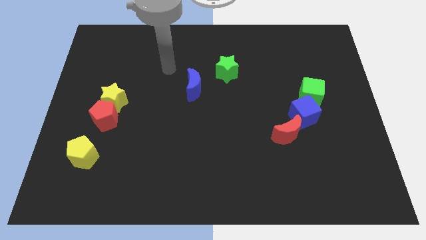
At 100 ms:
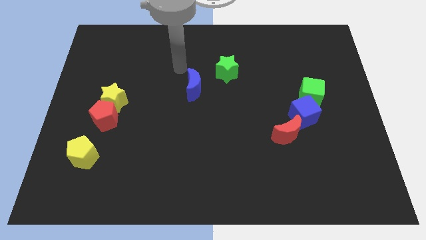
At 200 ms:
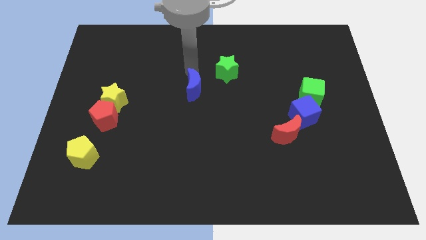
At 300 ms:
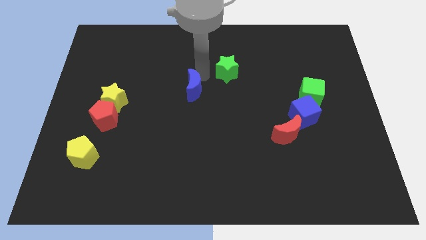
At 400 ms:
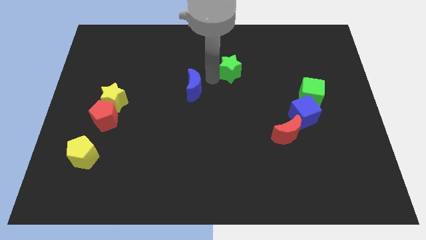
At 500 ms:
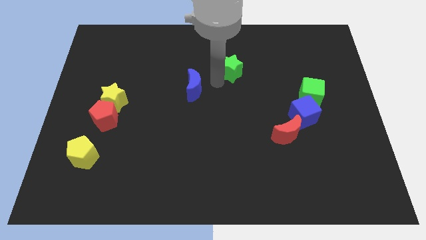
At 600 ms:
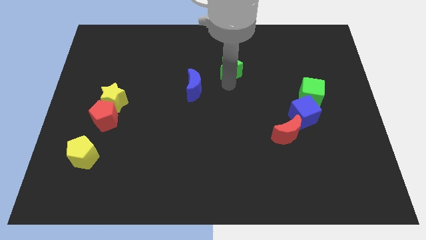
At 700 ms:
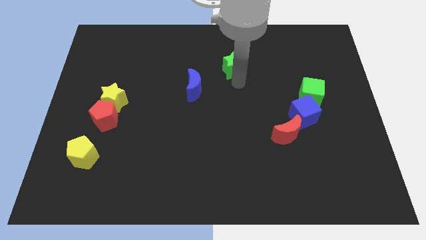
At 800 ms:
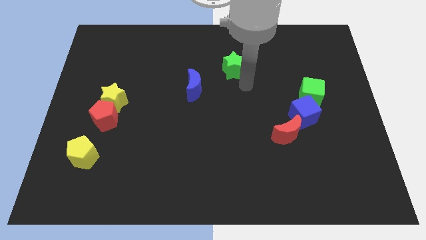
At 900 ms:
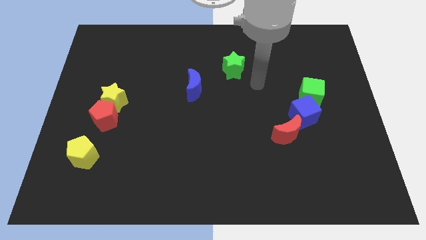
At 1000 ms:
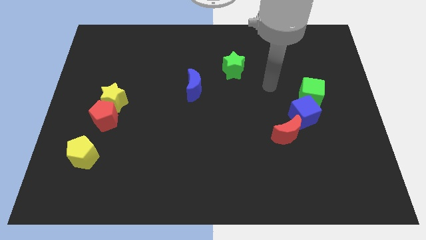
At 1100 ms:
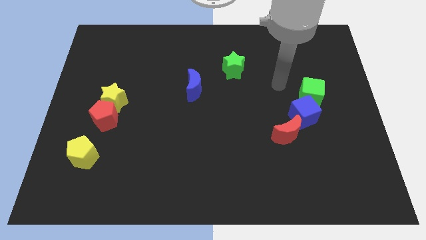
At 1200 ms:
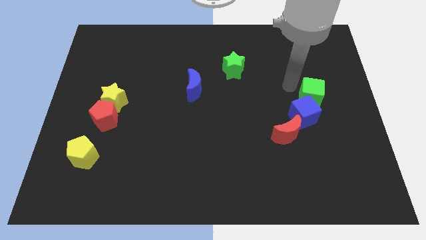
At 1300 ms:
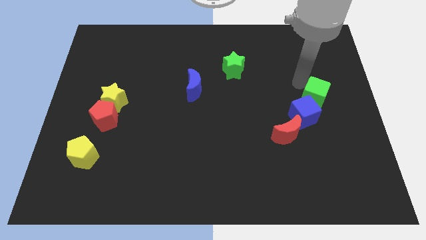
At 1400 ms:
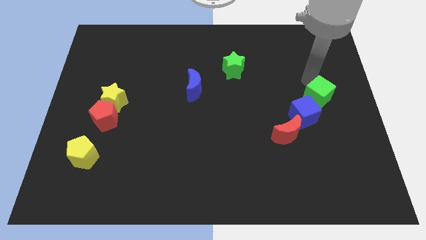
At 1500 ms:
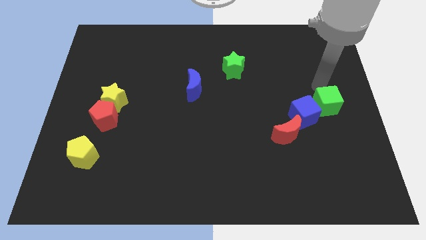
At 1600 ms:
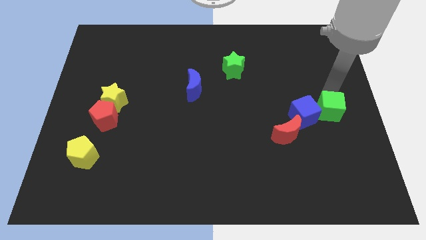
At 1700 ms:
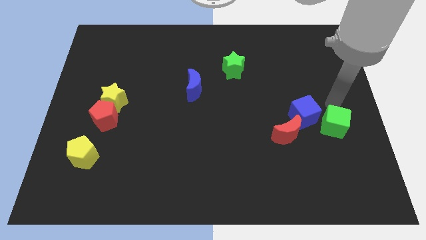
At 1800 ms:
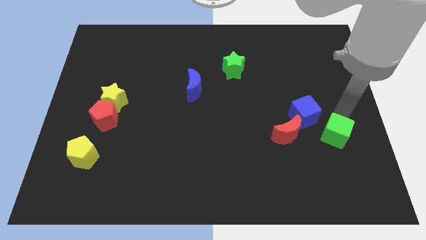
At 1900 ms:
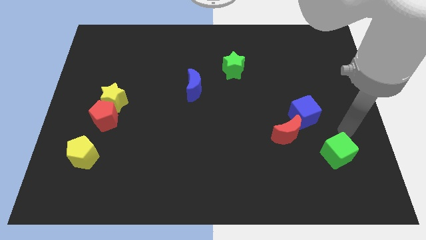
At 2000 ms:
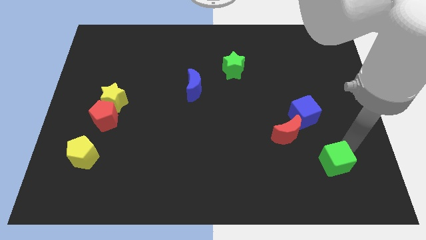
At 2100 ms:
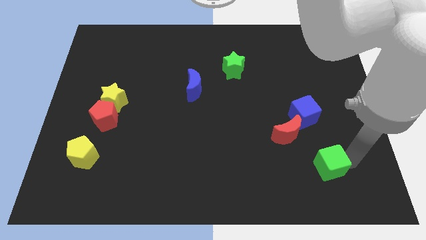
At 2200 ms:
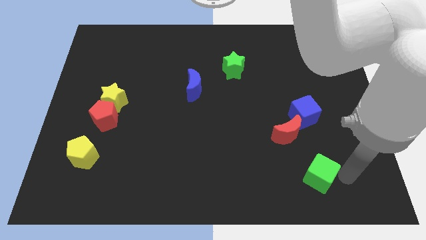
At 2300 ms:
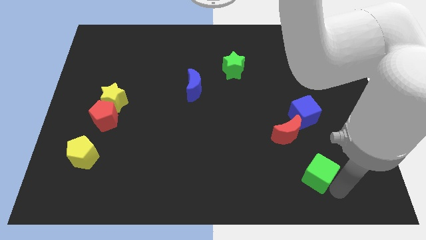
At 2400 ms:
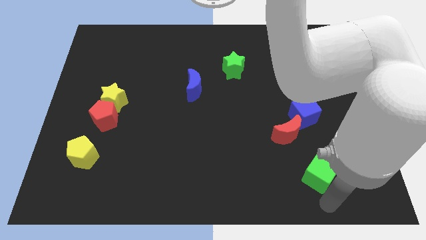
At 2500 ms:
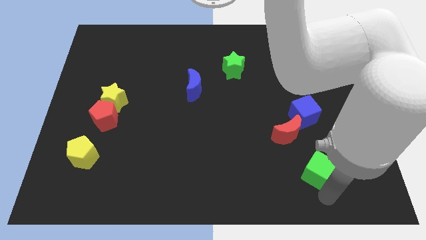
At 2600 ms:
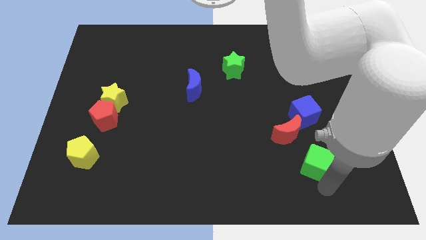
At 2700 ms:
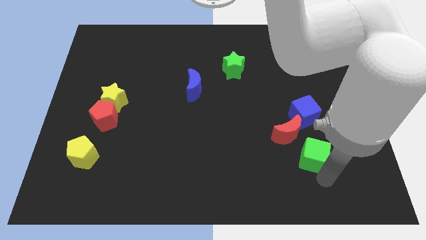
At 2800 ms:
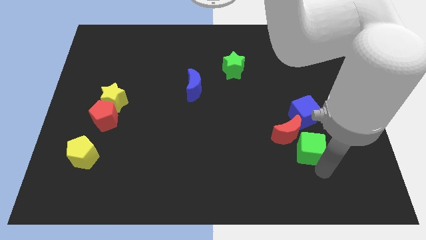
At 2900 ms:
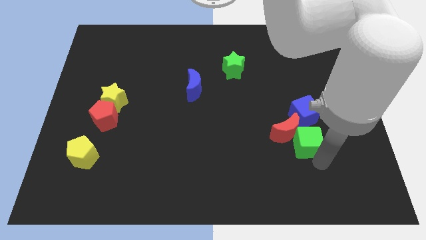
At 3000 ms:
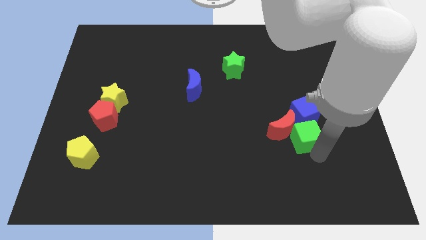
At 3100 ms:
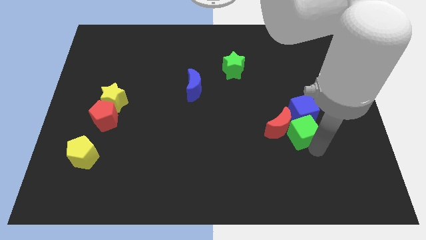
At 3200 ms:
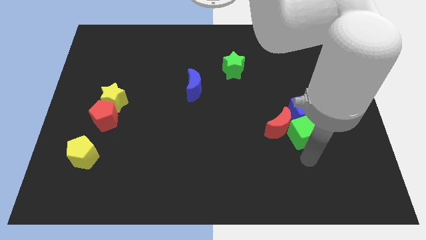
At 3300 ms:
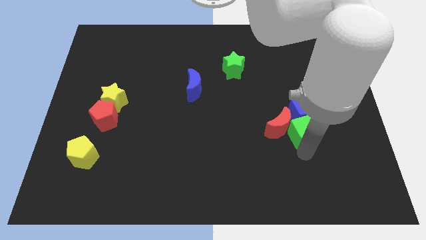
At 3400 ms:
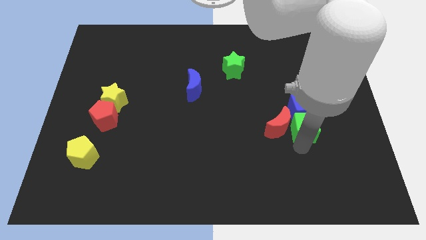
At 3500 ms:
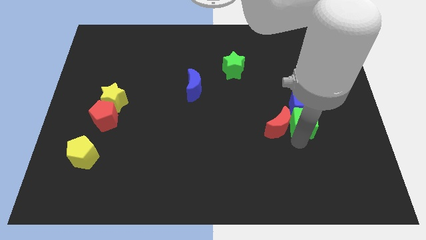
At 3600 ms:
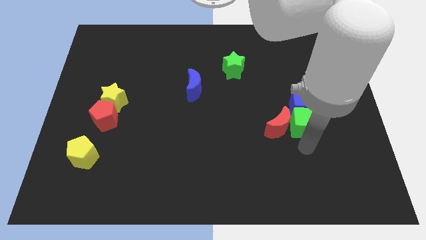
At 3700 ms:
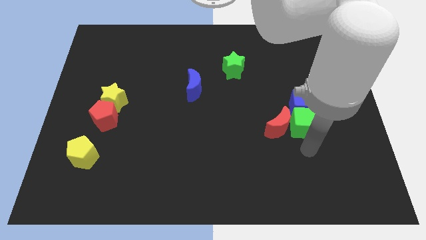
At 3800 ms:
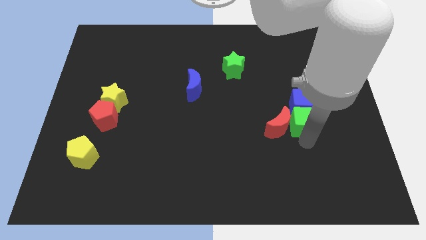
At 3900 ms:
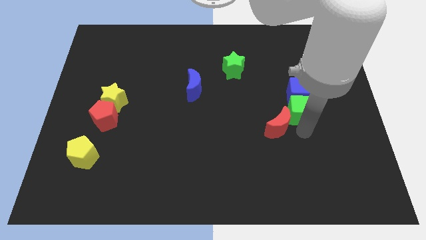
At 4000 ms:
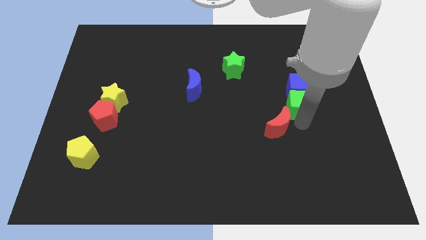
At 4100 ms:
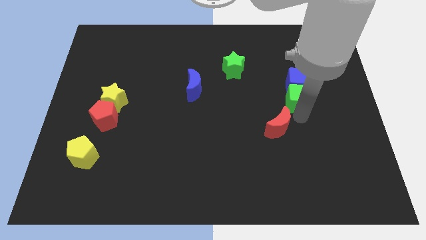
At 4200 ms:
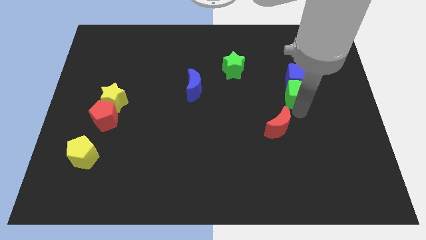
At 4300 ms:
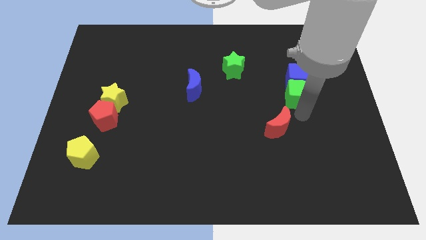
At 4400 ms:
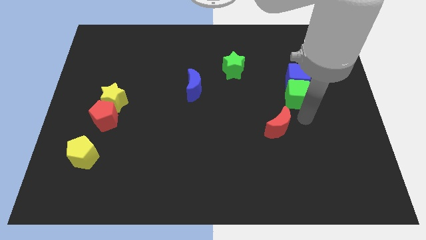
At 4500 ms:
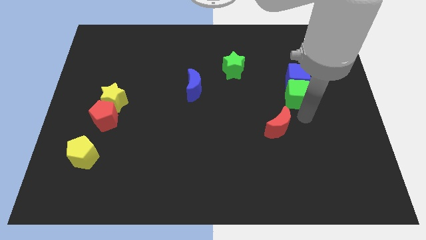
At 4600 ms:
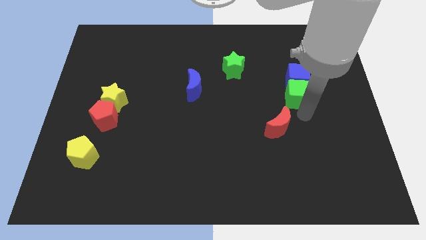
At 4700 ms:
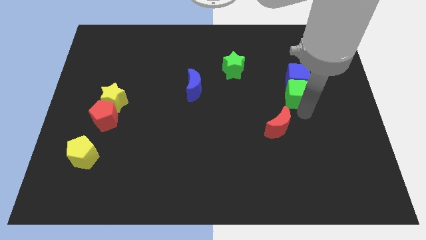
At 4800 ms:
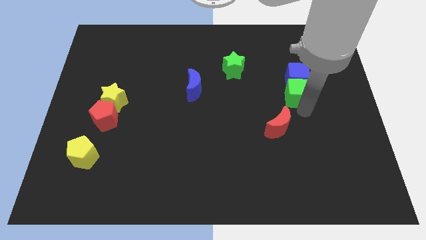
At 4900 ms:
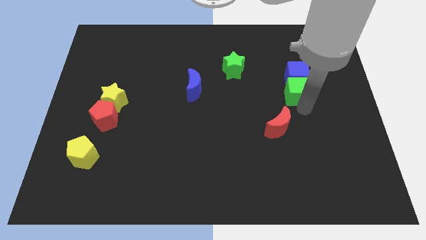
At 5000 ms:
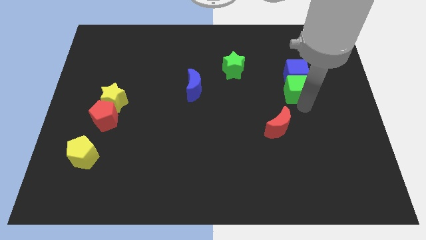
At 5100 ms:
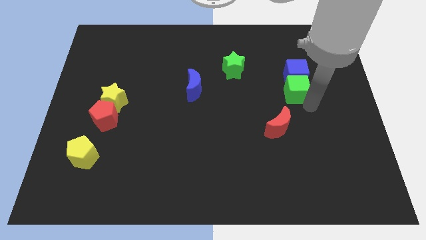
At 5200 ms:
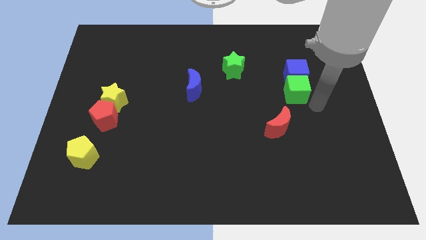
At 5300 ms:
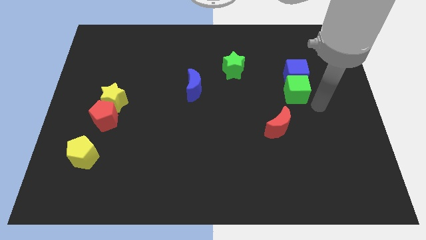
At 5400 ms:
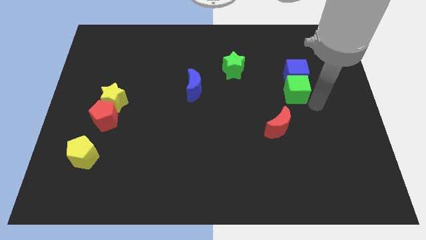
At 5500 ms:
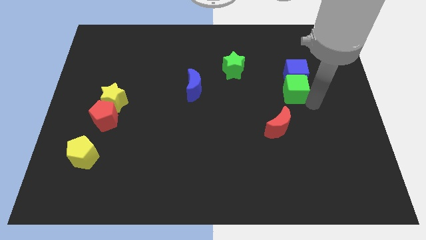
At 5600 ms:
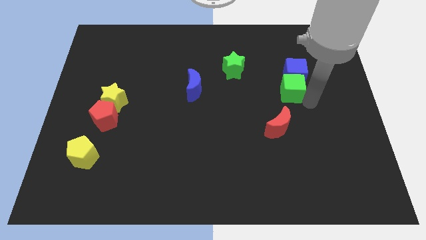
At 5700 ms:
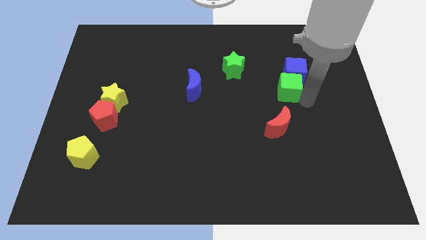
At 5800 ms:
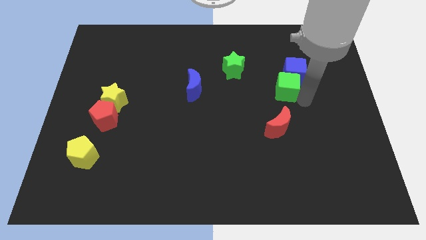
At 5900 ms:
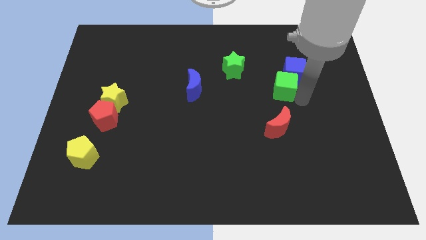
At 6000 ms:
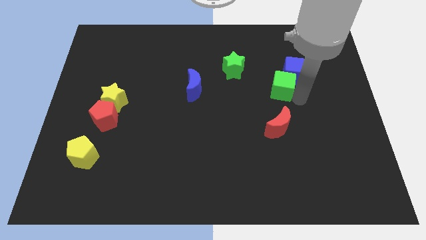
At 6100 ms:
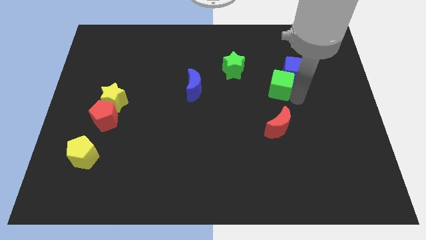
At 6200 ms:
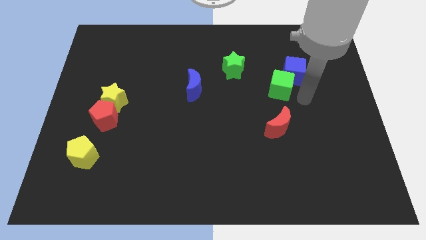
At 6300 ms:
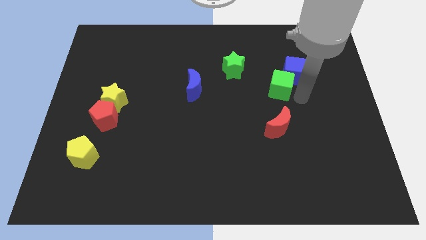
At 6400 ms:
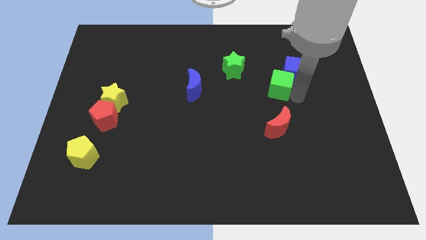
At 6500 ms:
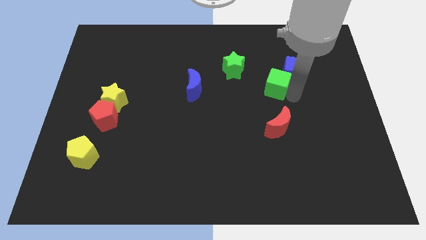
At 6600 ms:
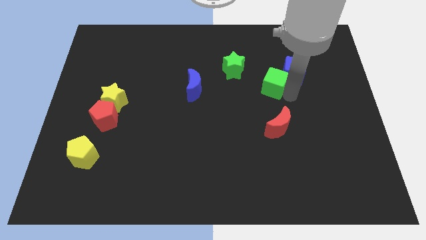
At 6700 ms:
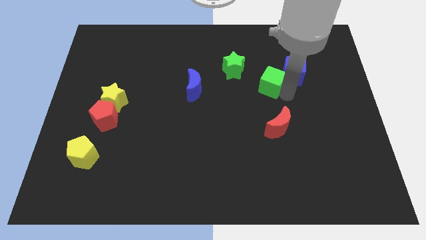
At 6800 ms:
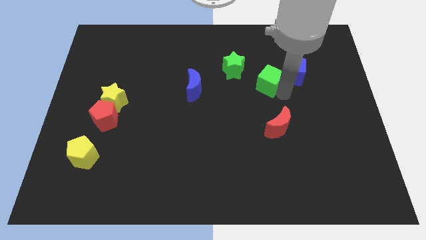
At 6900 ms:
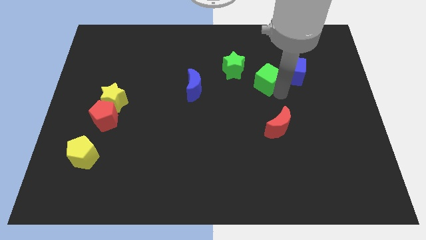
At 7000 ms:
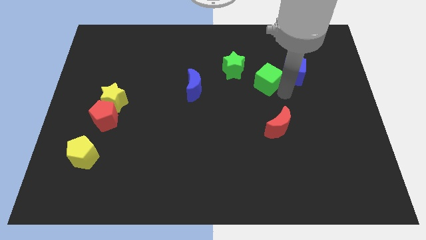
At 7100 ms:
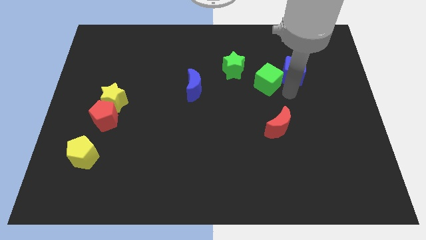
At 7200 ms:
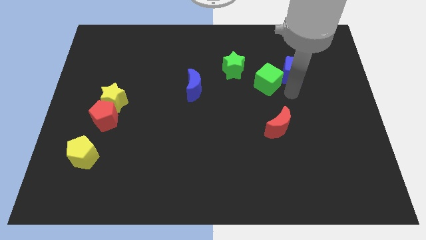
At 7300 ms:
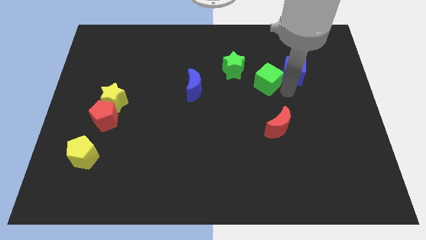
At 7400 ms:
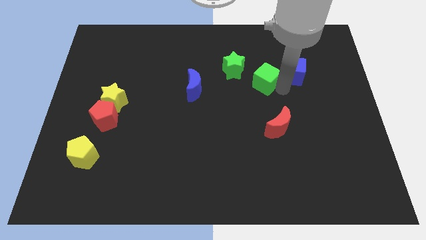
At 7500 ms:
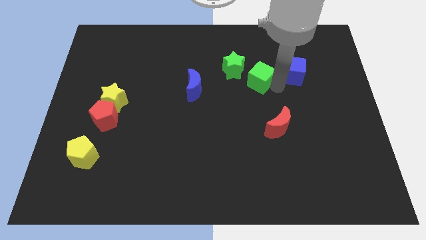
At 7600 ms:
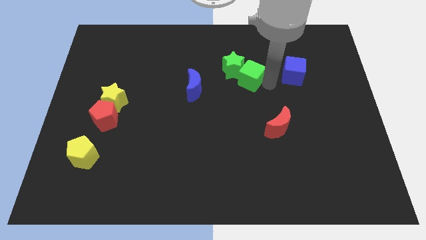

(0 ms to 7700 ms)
move the green cube next to the green star
